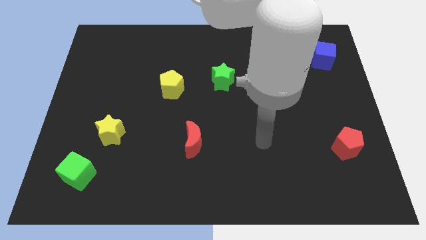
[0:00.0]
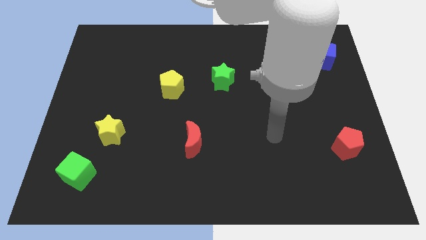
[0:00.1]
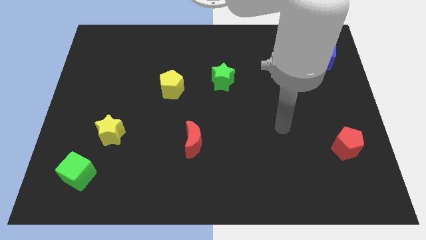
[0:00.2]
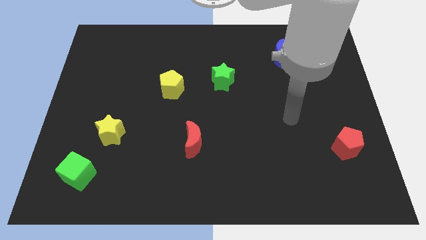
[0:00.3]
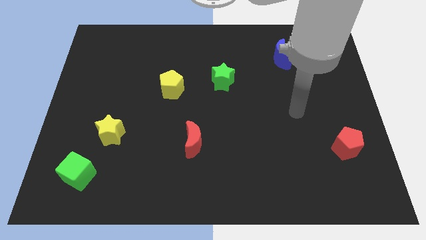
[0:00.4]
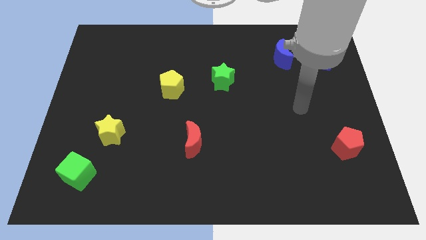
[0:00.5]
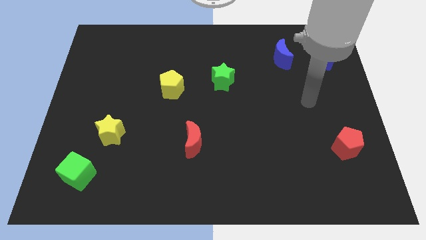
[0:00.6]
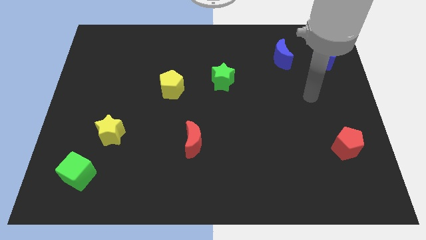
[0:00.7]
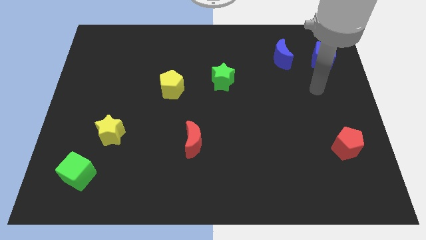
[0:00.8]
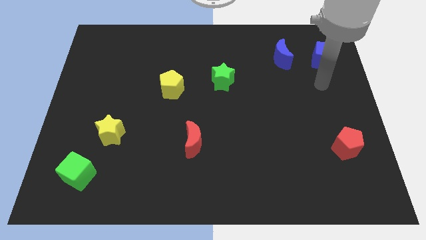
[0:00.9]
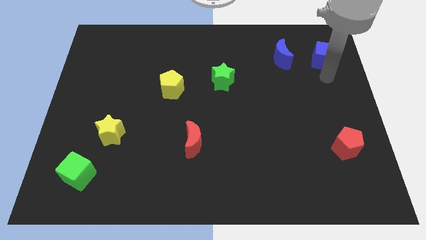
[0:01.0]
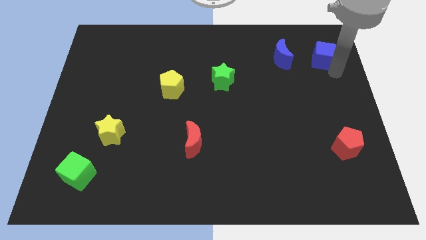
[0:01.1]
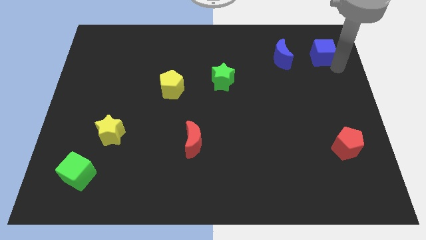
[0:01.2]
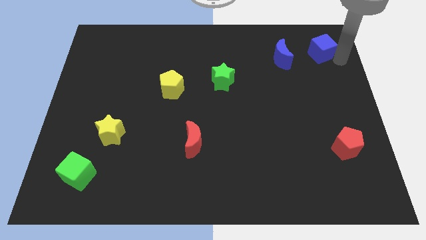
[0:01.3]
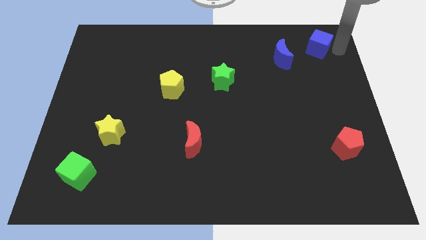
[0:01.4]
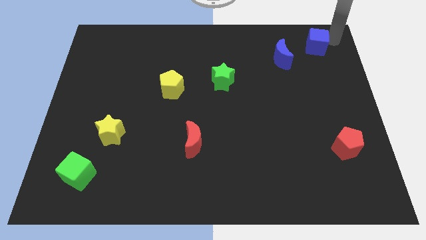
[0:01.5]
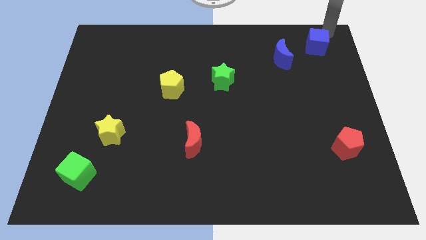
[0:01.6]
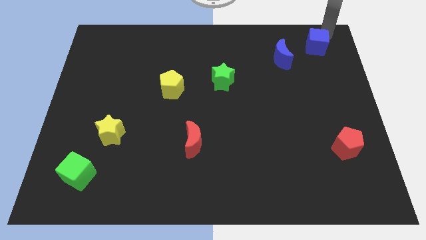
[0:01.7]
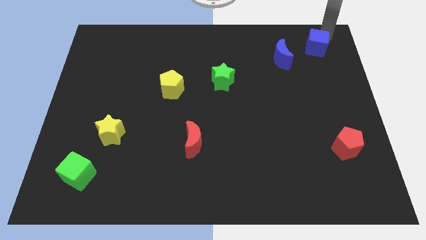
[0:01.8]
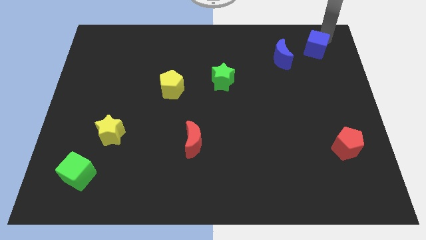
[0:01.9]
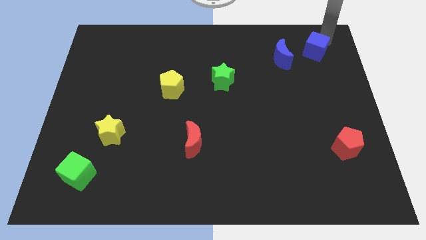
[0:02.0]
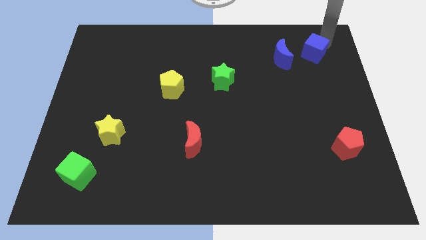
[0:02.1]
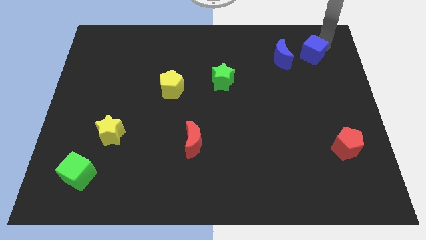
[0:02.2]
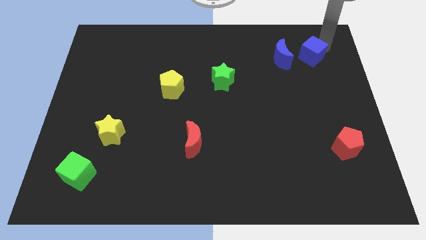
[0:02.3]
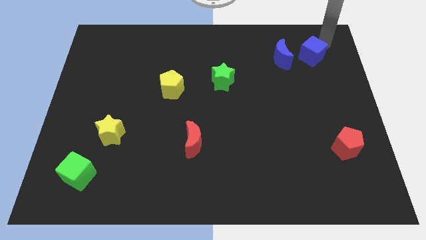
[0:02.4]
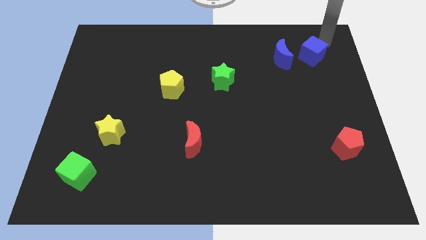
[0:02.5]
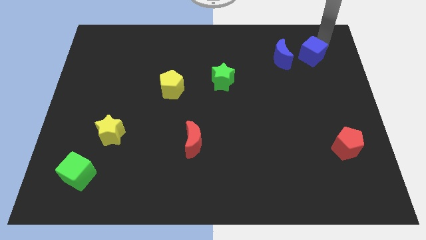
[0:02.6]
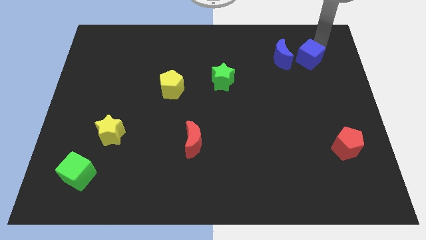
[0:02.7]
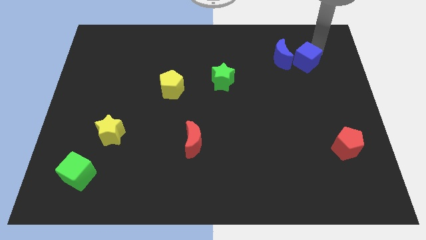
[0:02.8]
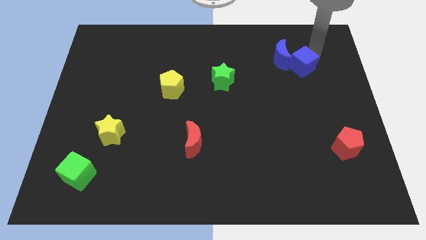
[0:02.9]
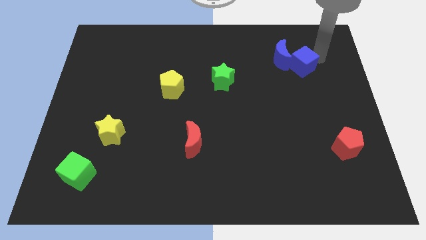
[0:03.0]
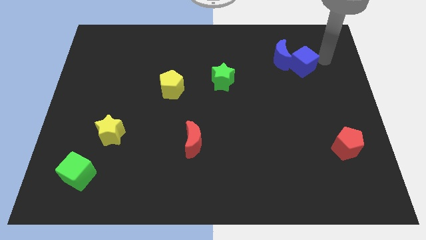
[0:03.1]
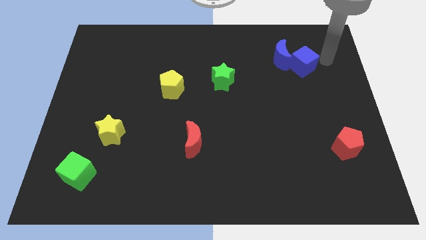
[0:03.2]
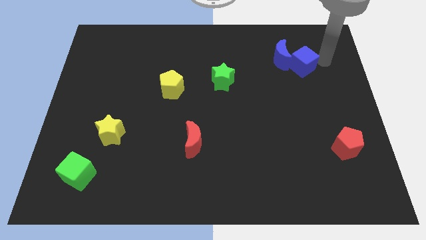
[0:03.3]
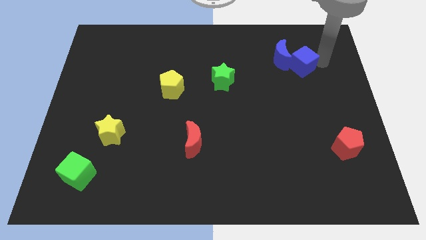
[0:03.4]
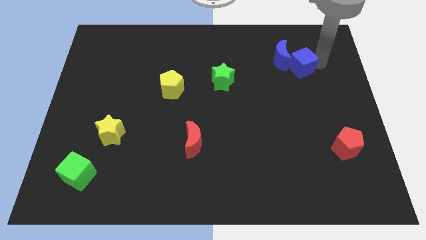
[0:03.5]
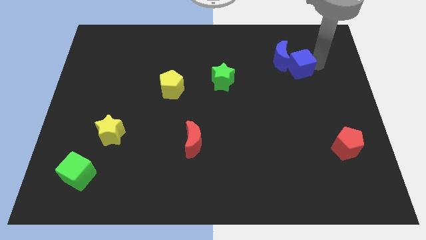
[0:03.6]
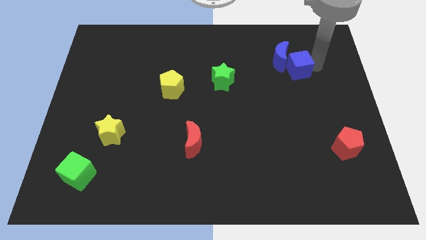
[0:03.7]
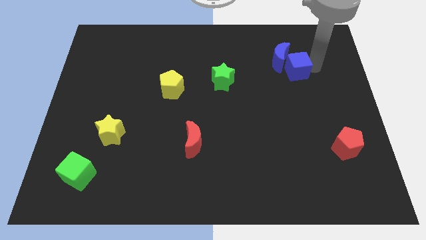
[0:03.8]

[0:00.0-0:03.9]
move the blue cube slightly left

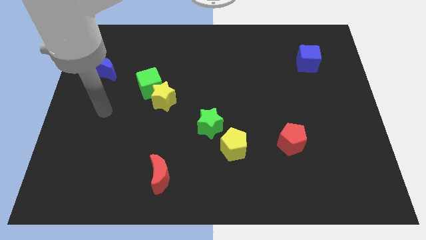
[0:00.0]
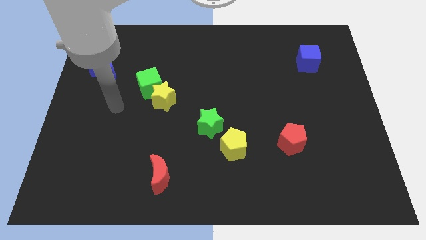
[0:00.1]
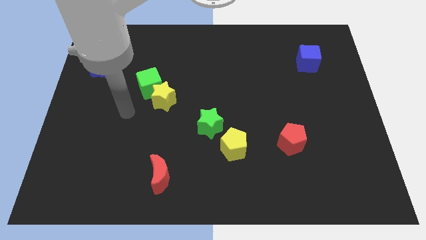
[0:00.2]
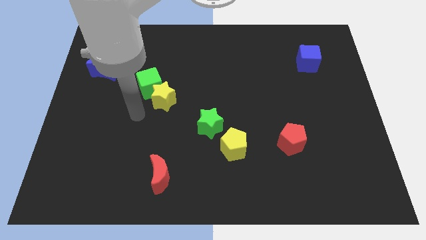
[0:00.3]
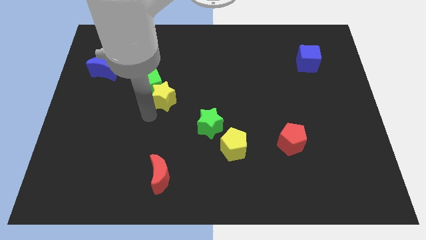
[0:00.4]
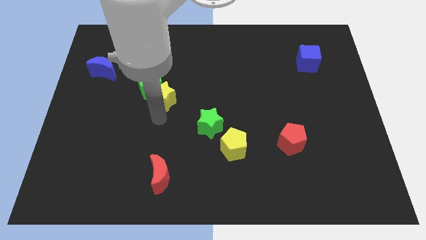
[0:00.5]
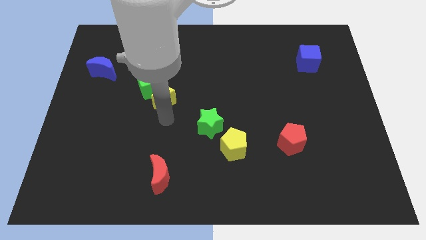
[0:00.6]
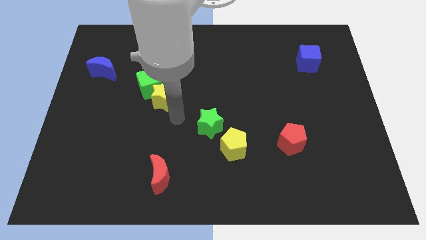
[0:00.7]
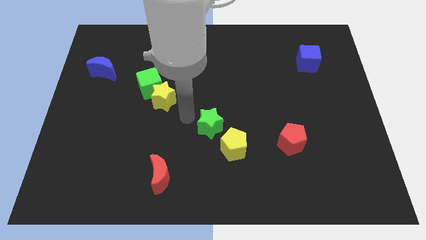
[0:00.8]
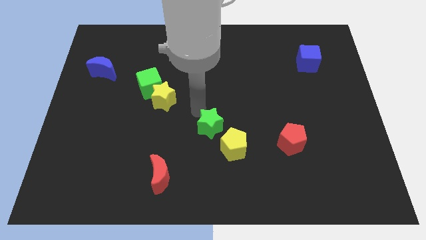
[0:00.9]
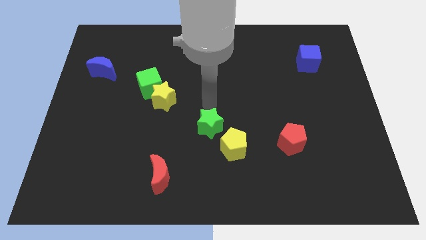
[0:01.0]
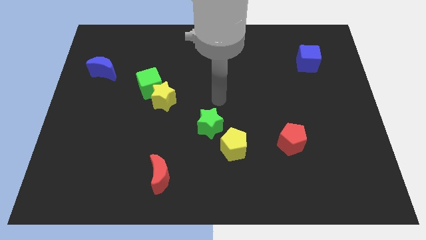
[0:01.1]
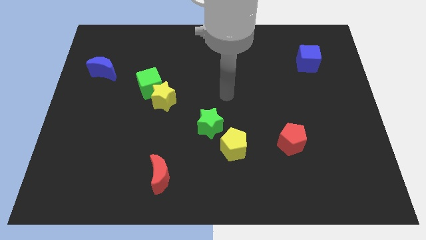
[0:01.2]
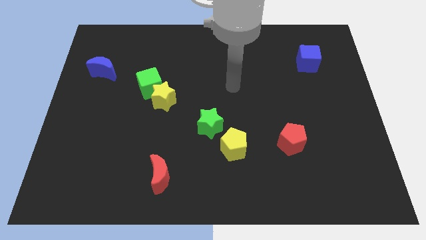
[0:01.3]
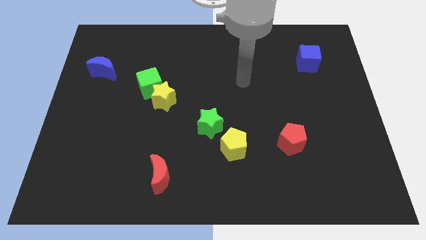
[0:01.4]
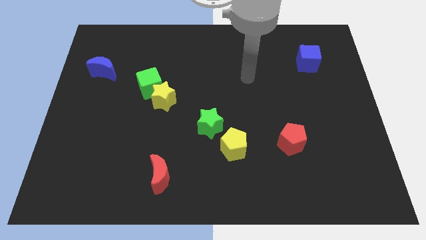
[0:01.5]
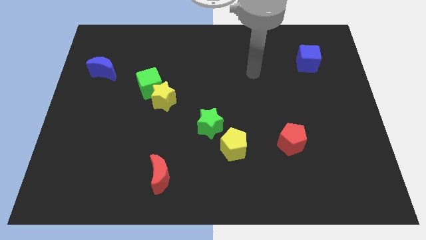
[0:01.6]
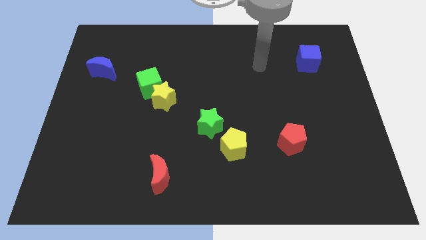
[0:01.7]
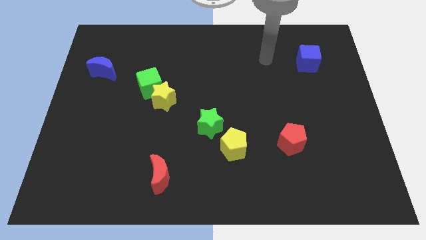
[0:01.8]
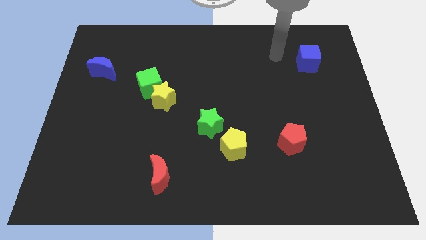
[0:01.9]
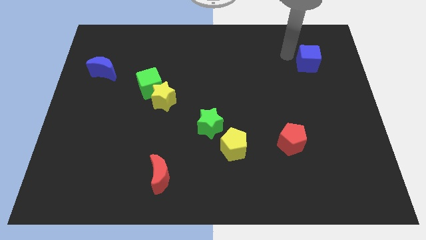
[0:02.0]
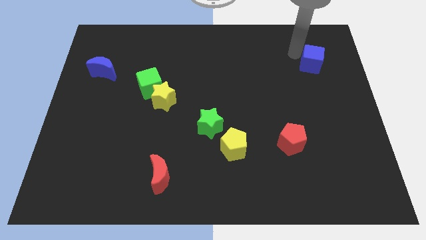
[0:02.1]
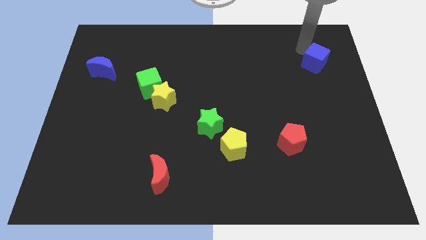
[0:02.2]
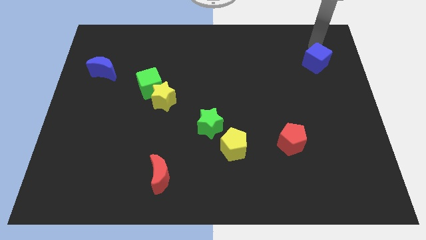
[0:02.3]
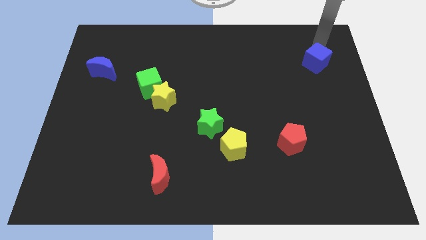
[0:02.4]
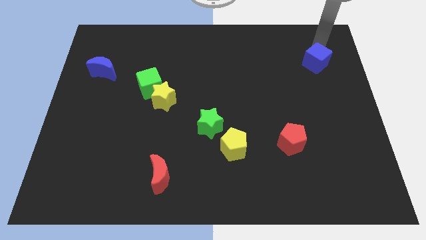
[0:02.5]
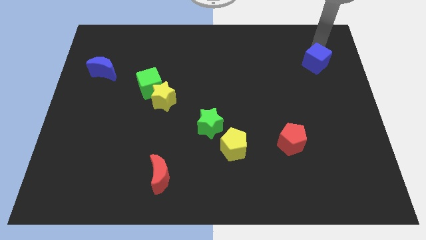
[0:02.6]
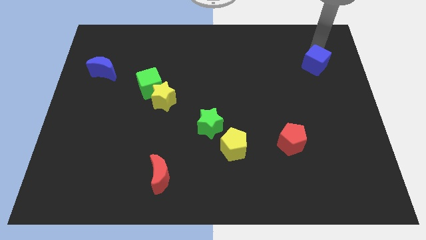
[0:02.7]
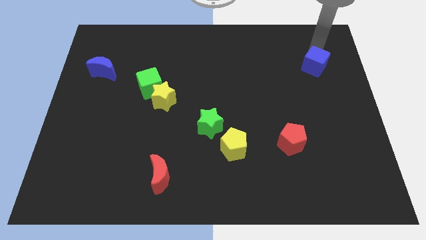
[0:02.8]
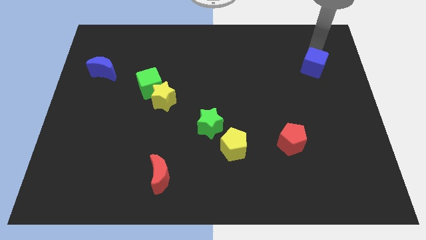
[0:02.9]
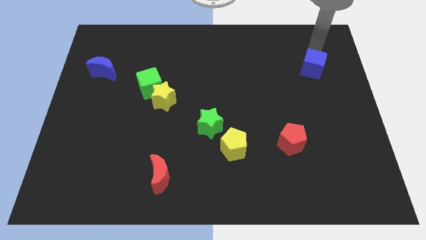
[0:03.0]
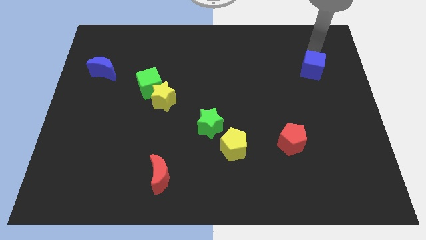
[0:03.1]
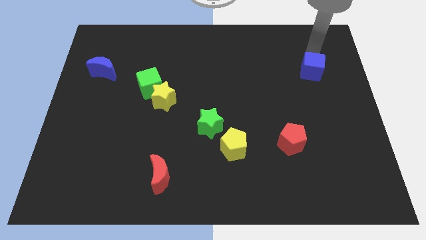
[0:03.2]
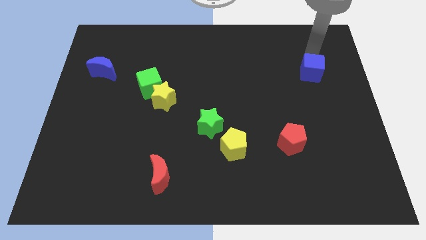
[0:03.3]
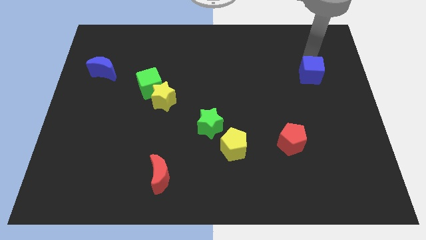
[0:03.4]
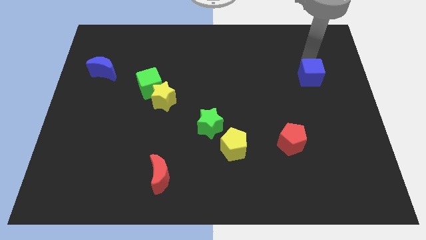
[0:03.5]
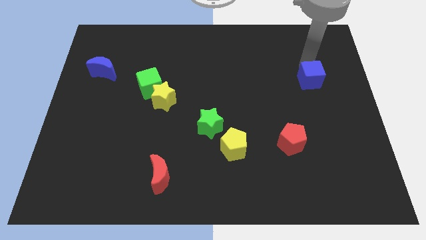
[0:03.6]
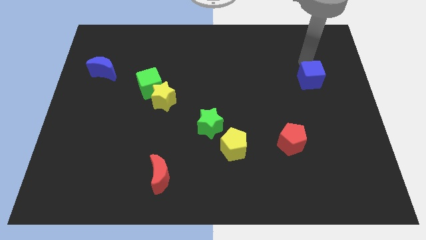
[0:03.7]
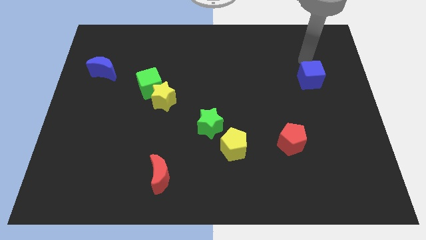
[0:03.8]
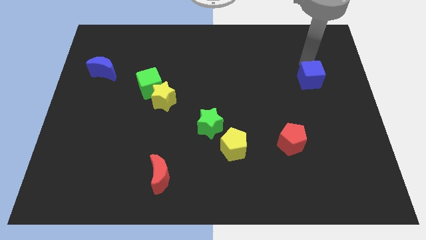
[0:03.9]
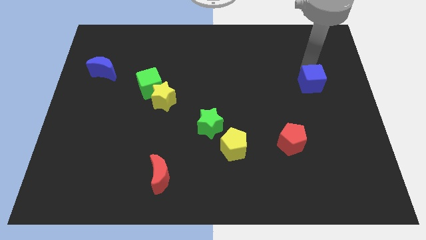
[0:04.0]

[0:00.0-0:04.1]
slightly move the blue cube downwards
